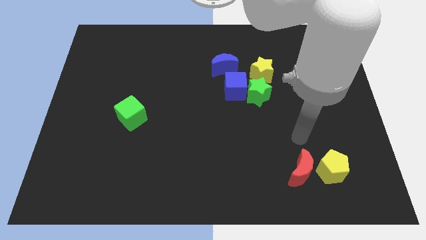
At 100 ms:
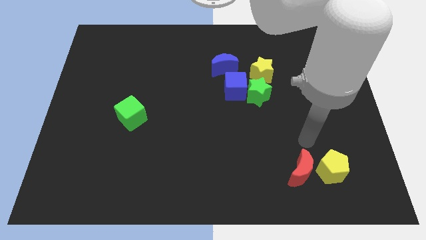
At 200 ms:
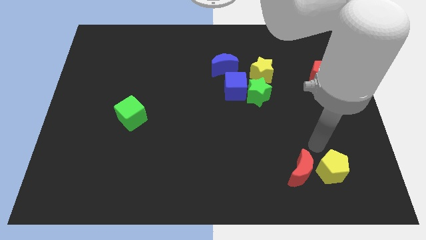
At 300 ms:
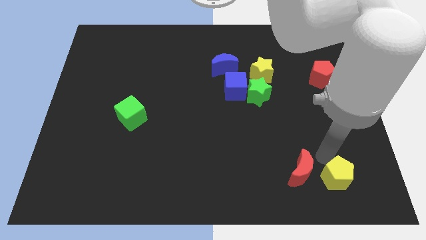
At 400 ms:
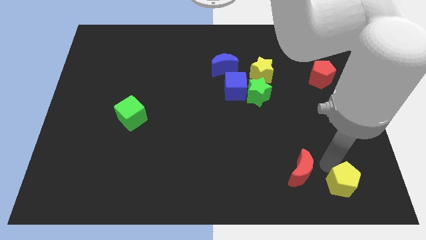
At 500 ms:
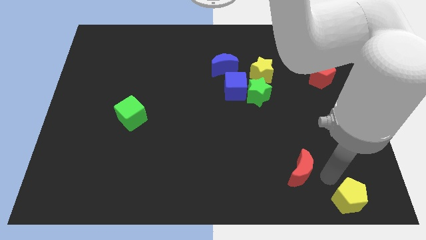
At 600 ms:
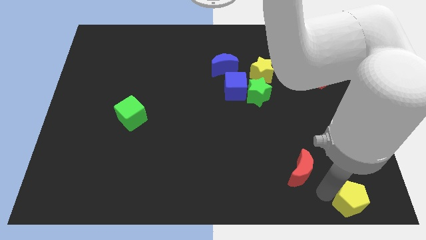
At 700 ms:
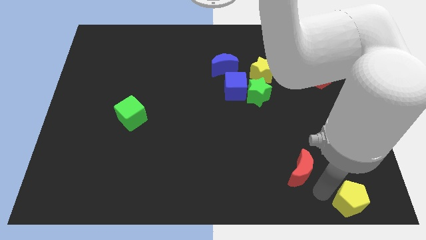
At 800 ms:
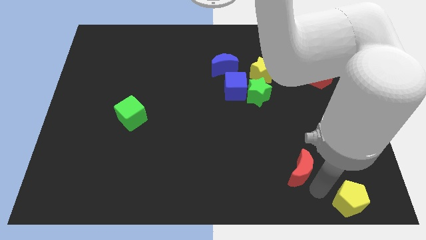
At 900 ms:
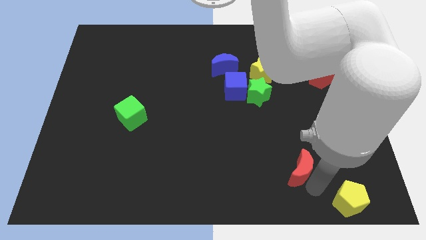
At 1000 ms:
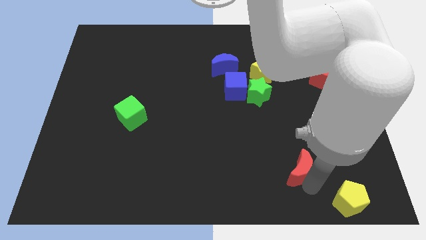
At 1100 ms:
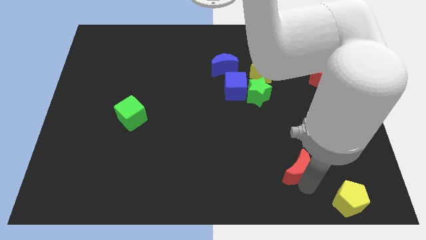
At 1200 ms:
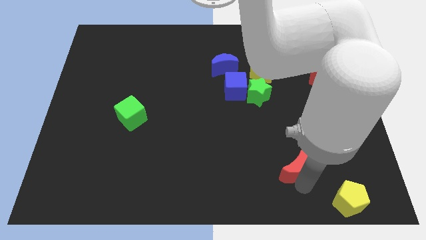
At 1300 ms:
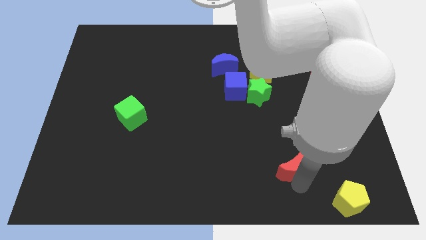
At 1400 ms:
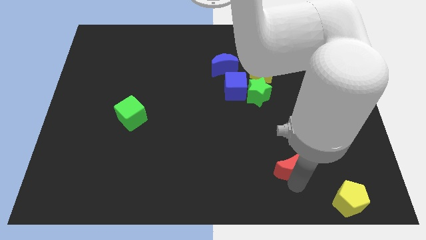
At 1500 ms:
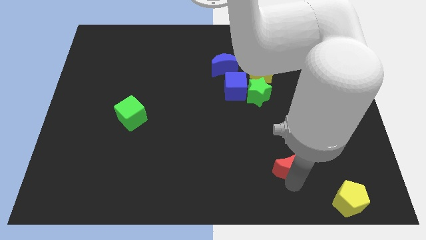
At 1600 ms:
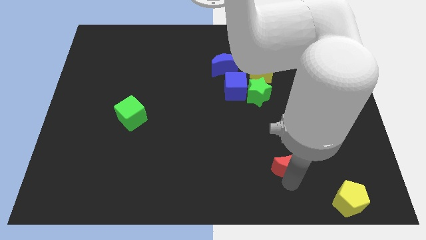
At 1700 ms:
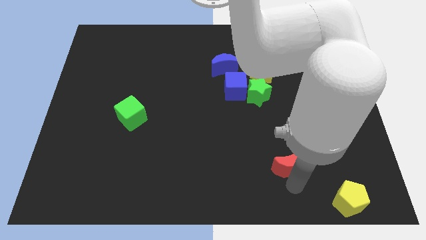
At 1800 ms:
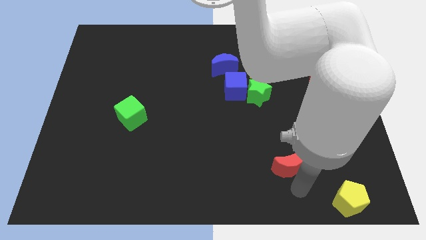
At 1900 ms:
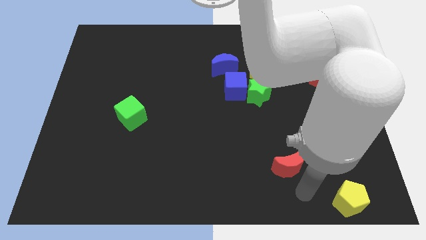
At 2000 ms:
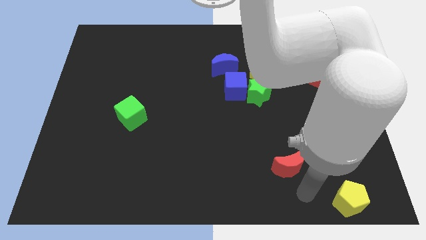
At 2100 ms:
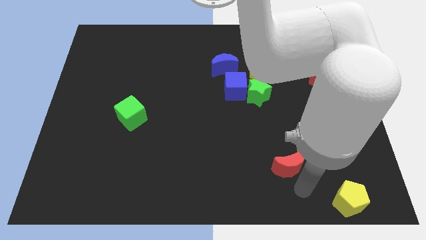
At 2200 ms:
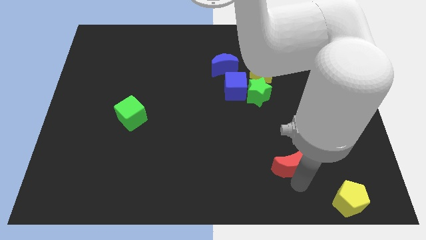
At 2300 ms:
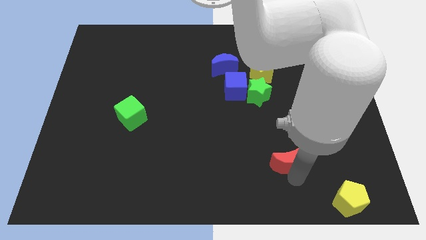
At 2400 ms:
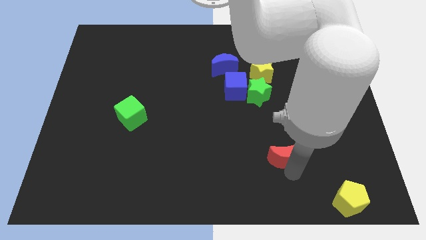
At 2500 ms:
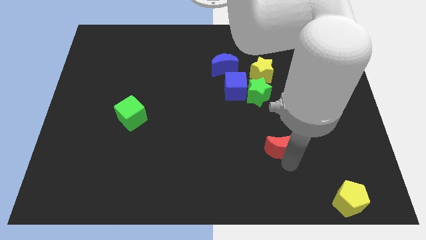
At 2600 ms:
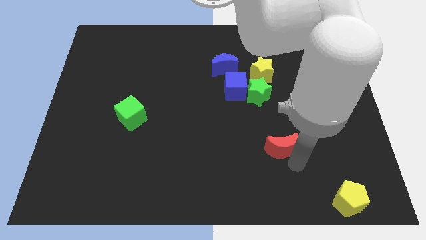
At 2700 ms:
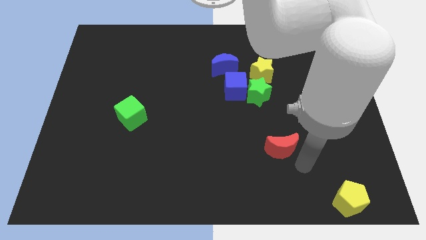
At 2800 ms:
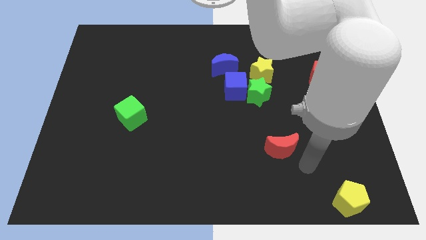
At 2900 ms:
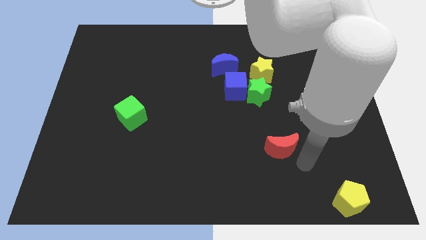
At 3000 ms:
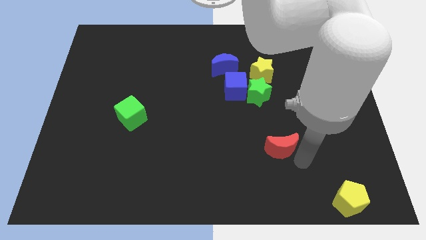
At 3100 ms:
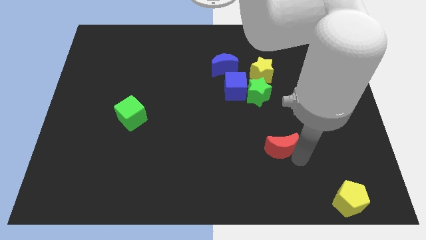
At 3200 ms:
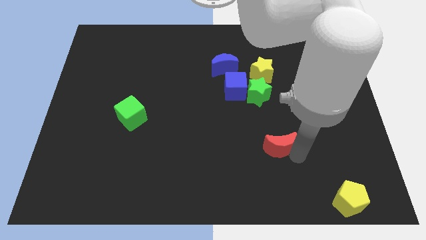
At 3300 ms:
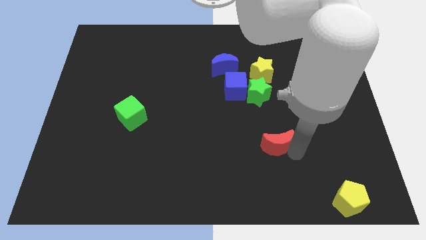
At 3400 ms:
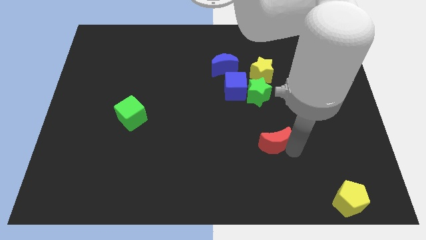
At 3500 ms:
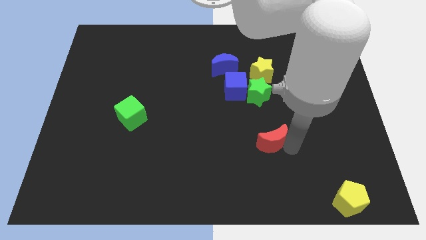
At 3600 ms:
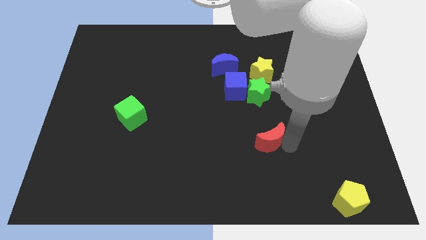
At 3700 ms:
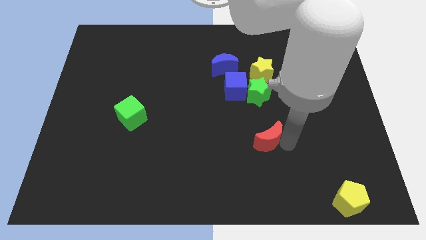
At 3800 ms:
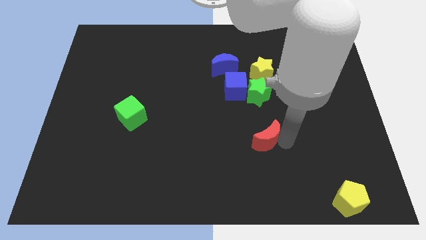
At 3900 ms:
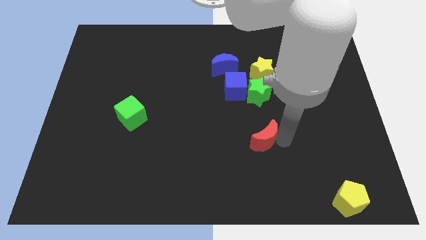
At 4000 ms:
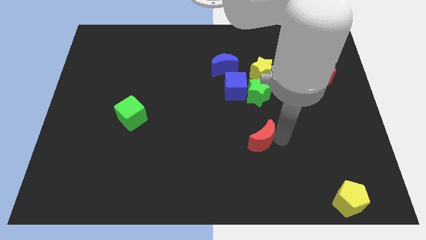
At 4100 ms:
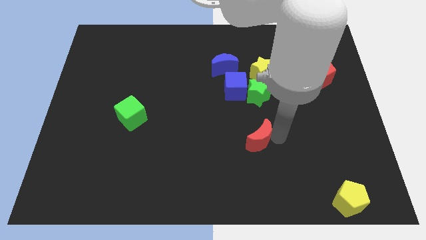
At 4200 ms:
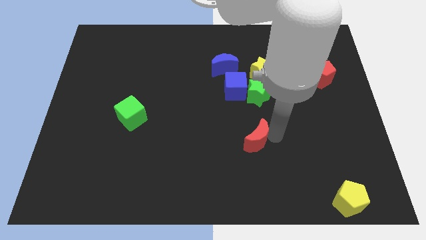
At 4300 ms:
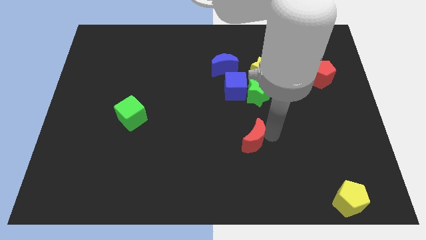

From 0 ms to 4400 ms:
slide the red moon to the bottom of the blue cube

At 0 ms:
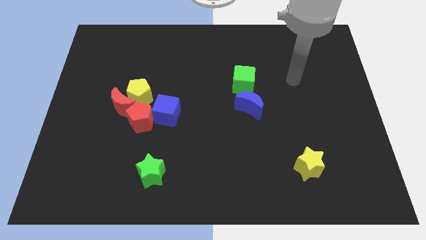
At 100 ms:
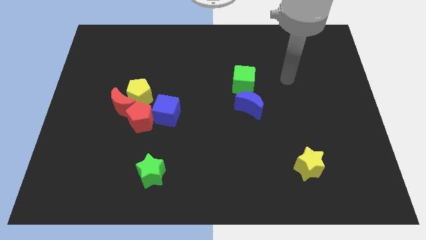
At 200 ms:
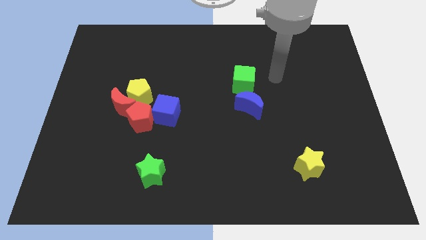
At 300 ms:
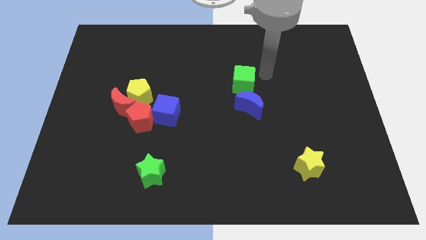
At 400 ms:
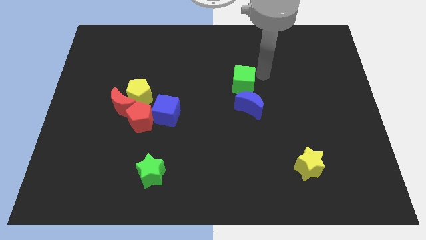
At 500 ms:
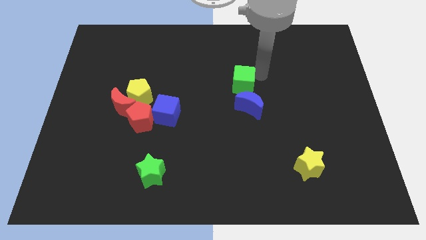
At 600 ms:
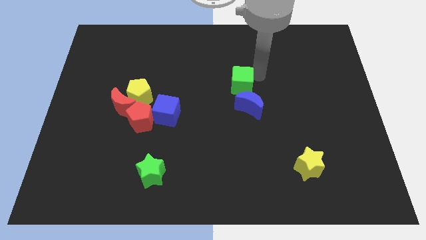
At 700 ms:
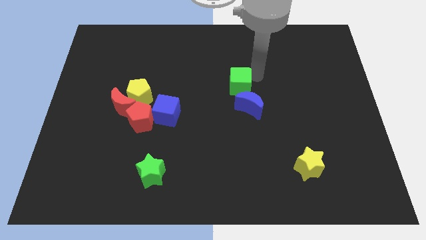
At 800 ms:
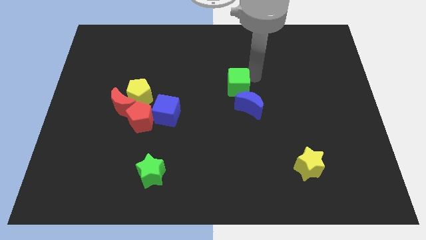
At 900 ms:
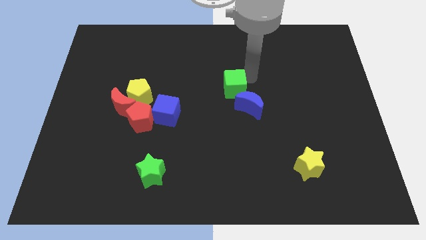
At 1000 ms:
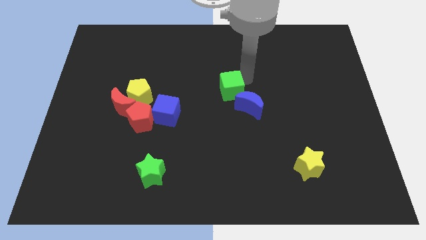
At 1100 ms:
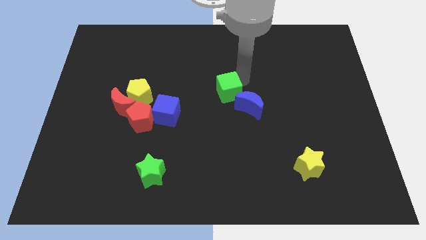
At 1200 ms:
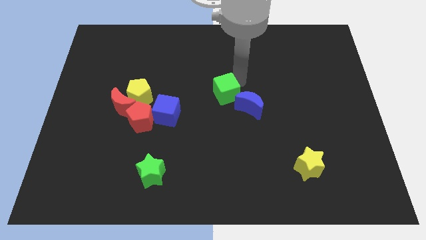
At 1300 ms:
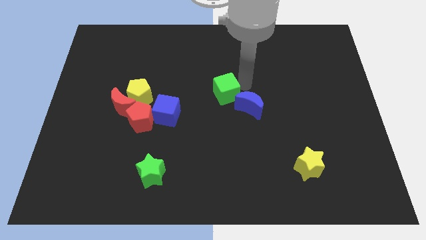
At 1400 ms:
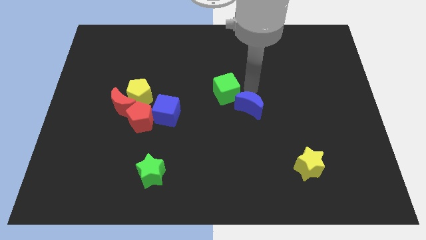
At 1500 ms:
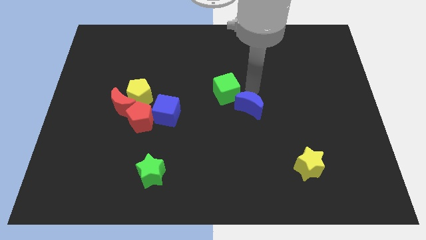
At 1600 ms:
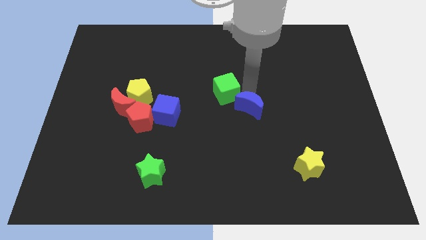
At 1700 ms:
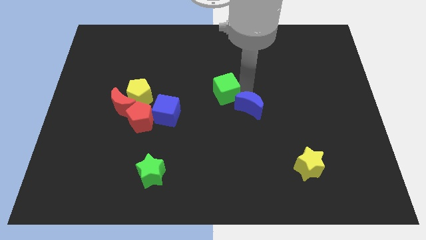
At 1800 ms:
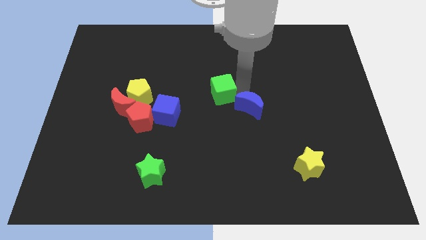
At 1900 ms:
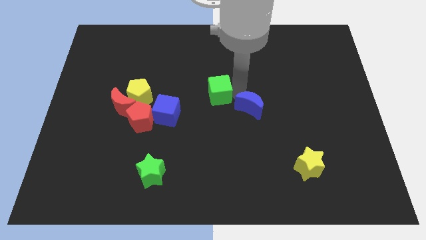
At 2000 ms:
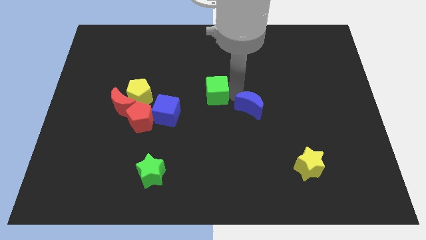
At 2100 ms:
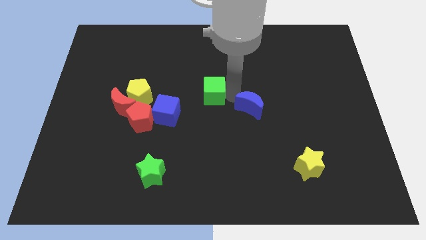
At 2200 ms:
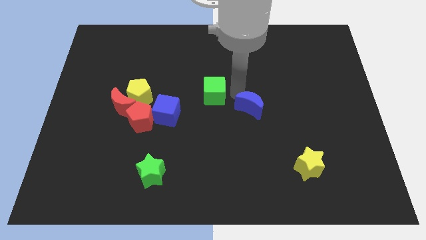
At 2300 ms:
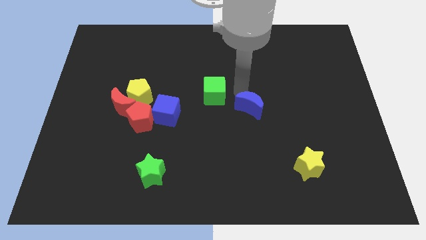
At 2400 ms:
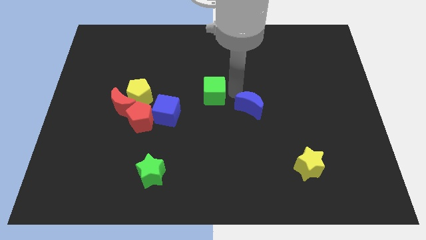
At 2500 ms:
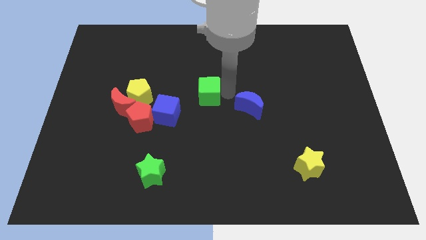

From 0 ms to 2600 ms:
move the green cube to the top right side of the blue cube

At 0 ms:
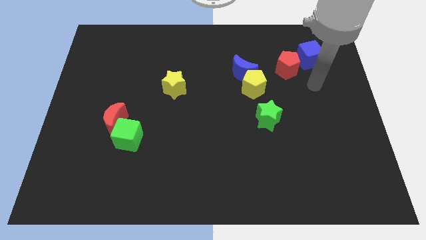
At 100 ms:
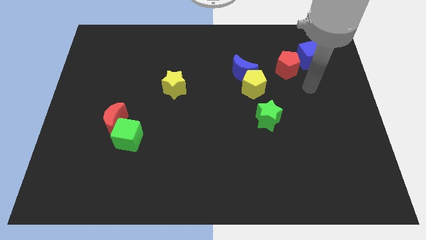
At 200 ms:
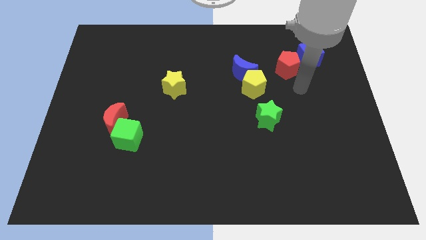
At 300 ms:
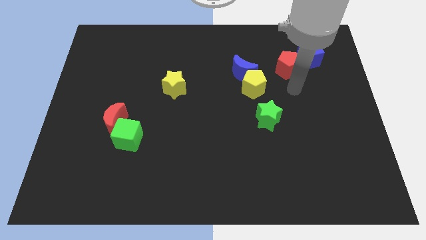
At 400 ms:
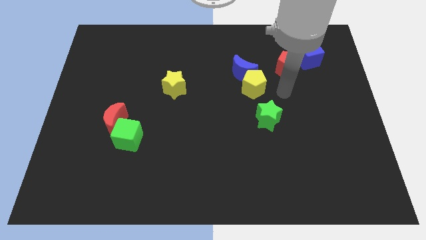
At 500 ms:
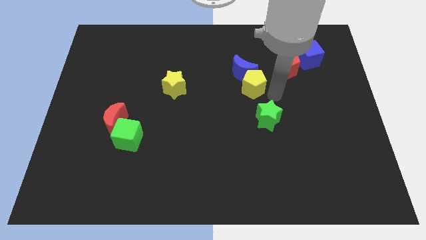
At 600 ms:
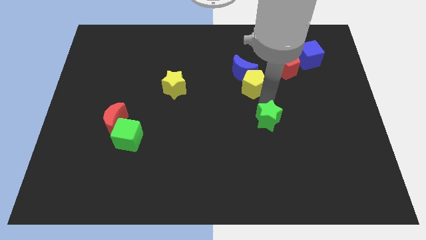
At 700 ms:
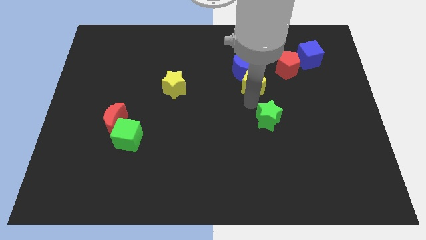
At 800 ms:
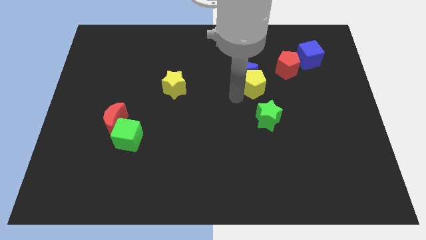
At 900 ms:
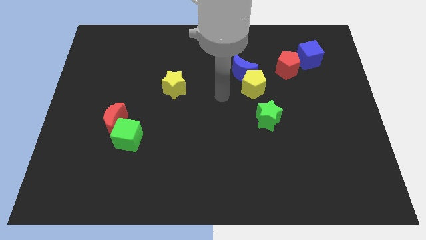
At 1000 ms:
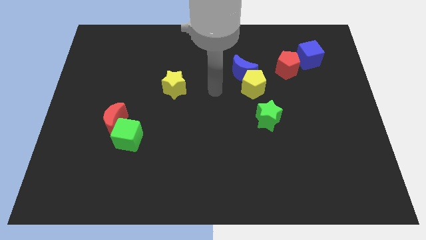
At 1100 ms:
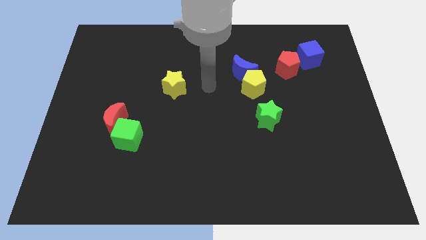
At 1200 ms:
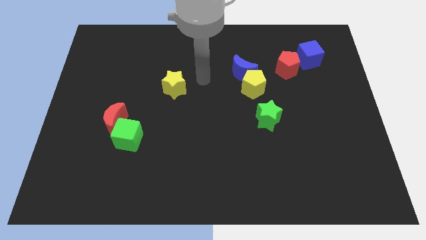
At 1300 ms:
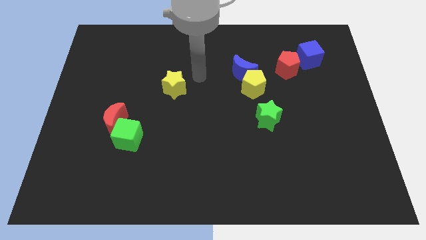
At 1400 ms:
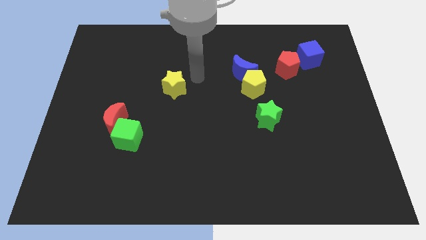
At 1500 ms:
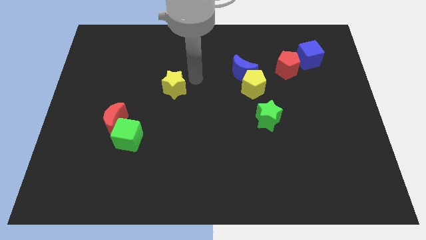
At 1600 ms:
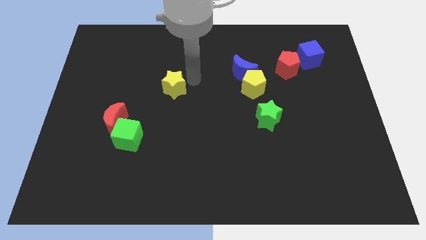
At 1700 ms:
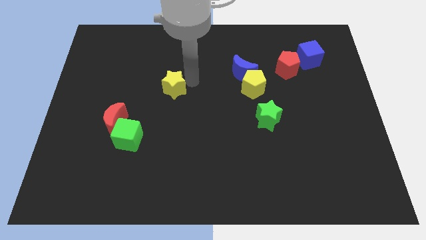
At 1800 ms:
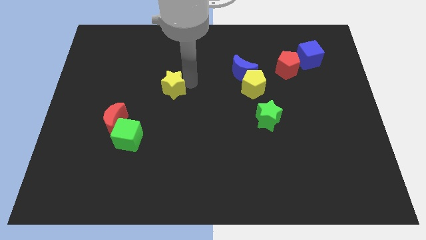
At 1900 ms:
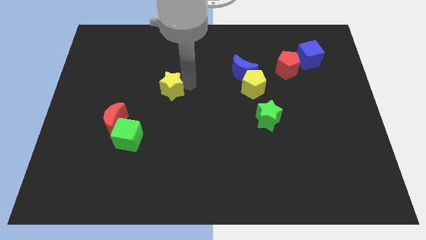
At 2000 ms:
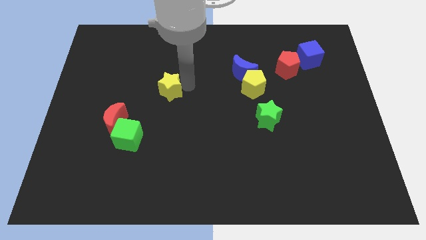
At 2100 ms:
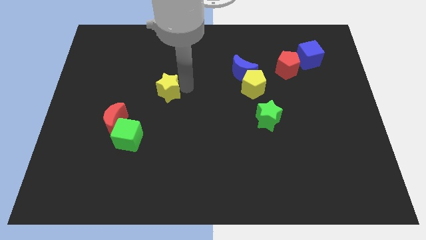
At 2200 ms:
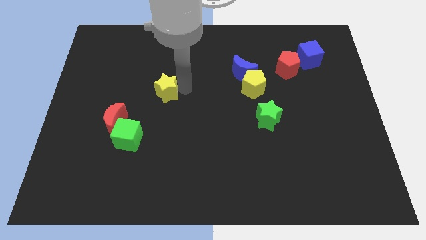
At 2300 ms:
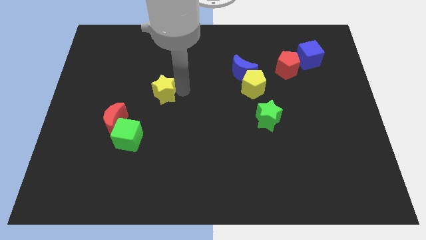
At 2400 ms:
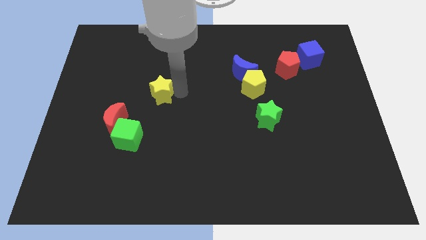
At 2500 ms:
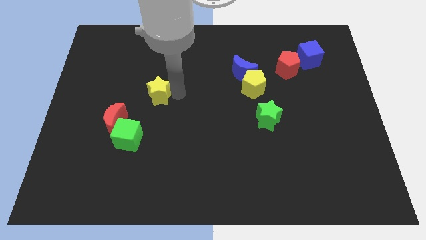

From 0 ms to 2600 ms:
slide the yellow star diagonally up and to the right of the red moon
